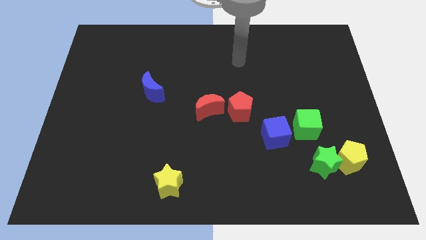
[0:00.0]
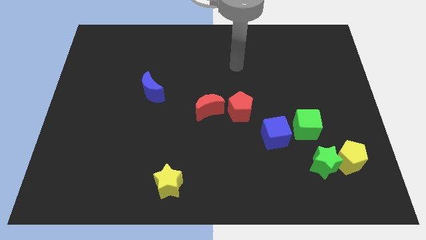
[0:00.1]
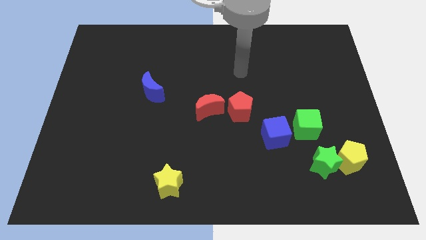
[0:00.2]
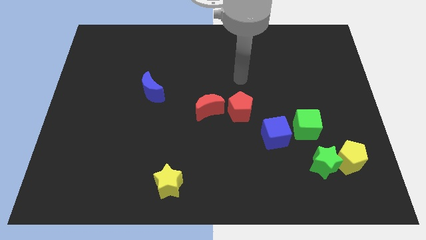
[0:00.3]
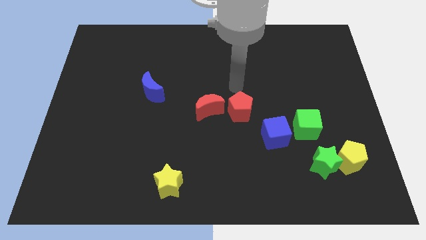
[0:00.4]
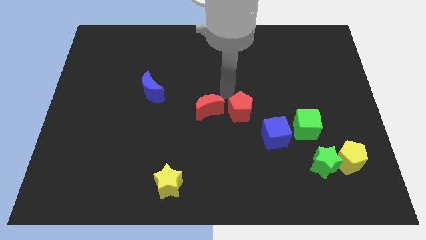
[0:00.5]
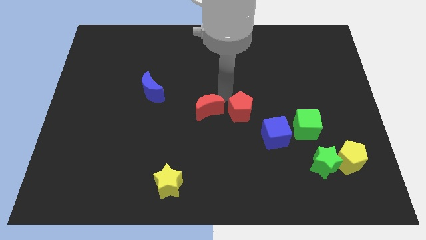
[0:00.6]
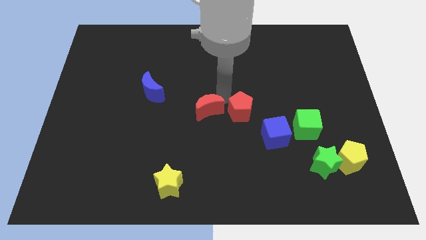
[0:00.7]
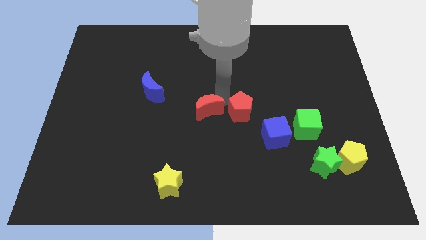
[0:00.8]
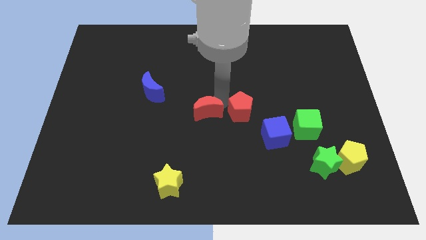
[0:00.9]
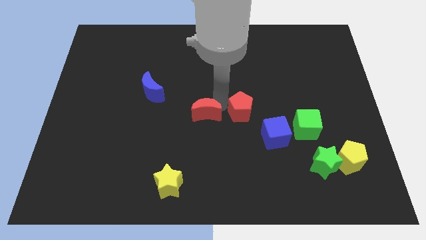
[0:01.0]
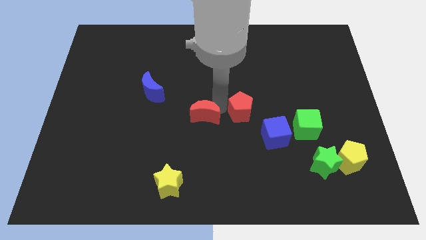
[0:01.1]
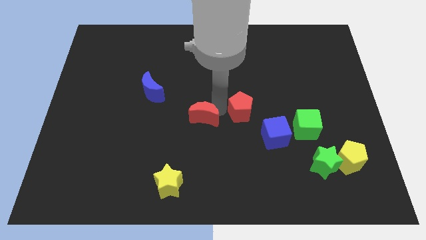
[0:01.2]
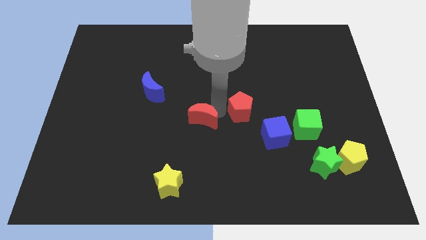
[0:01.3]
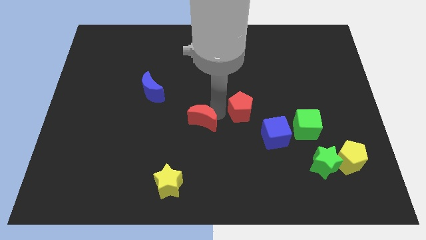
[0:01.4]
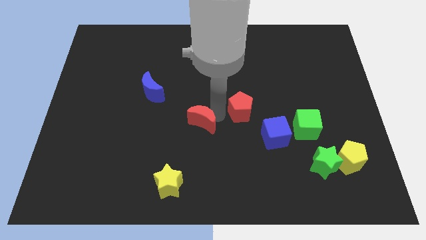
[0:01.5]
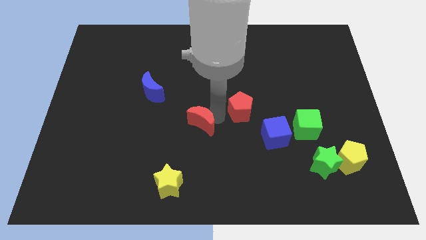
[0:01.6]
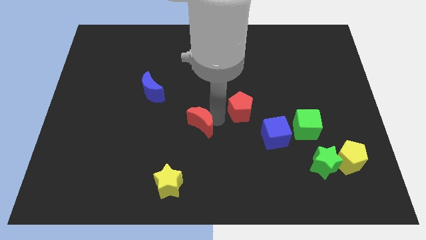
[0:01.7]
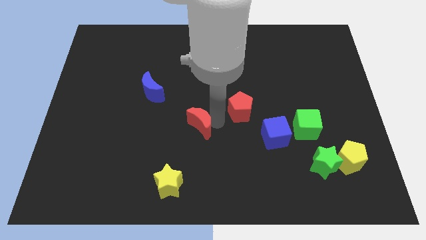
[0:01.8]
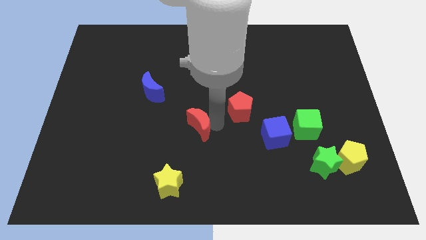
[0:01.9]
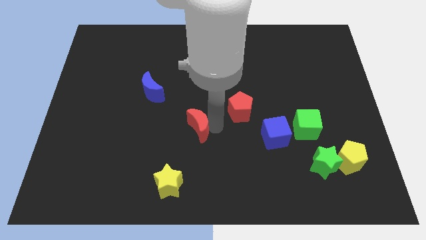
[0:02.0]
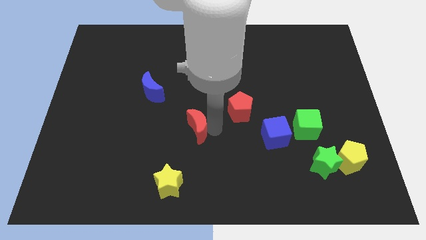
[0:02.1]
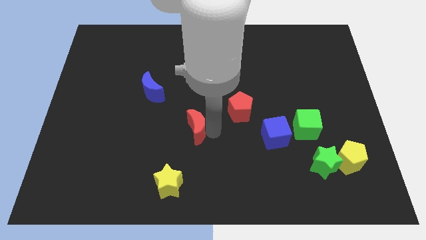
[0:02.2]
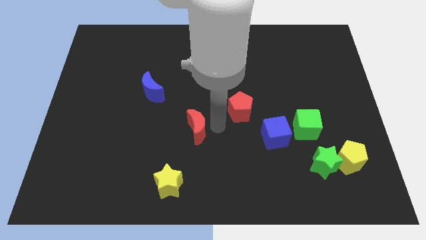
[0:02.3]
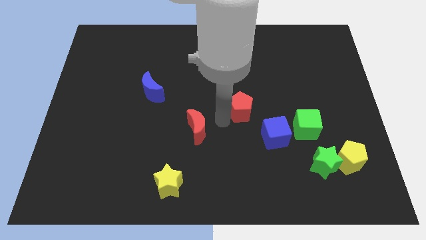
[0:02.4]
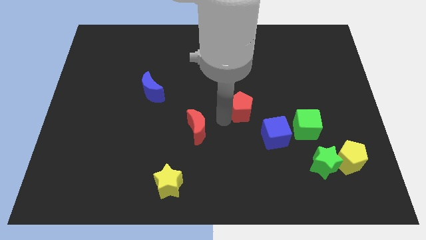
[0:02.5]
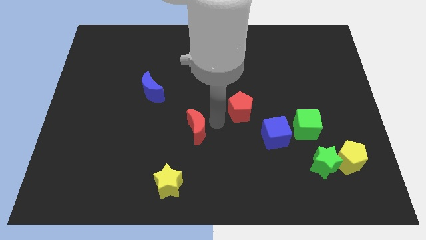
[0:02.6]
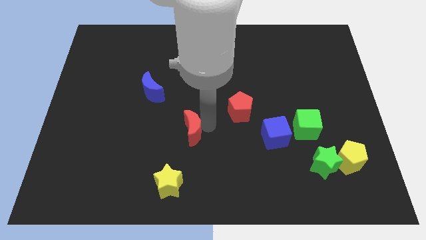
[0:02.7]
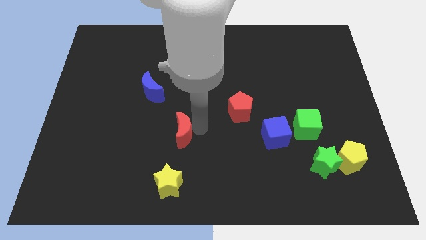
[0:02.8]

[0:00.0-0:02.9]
move the red moon downwards and to the left diagonally a bit

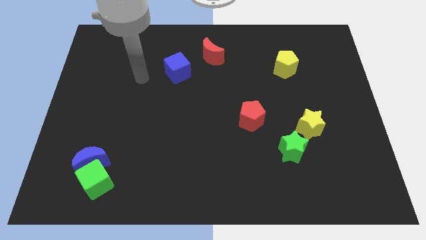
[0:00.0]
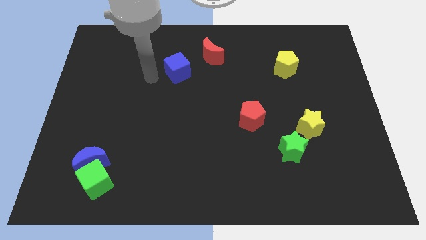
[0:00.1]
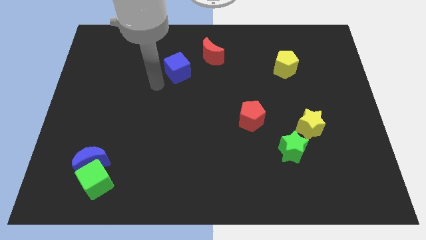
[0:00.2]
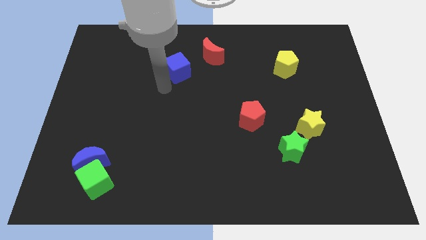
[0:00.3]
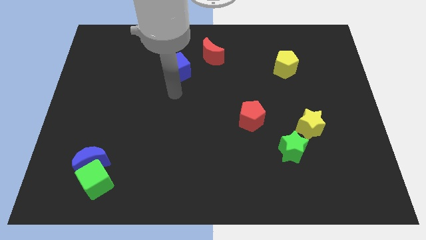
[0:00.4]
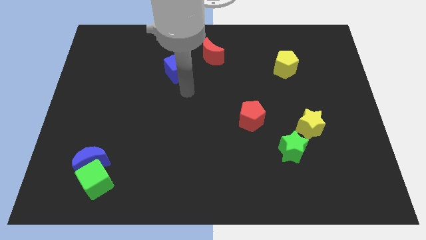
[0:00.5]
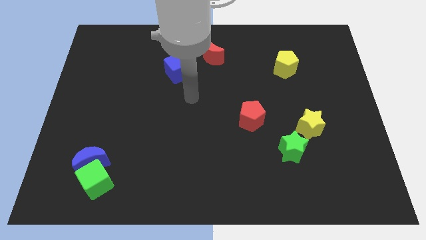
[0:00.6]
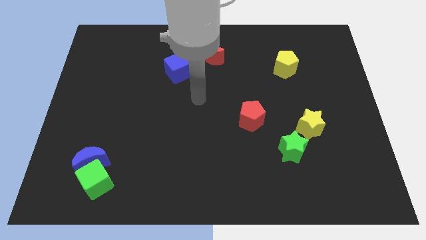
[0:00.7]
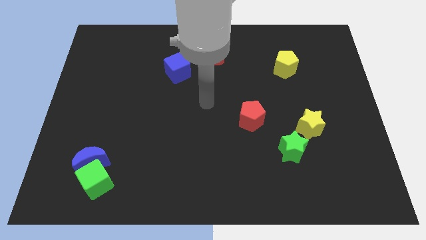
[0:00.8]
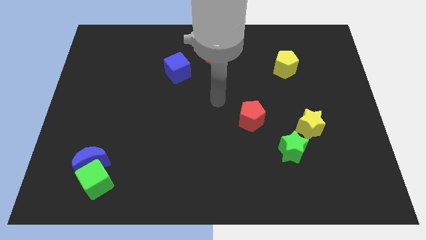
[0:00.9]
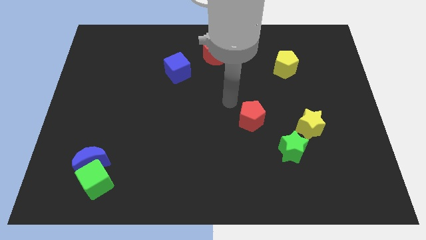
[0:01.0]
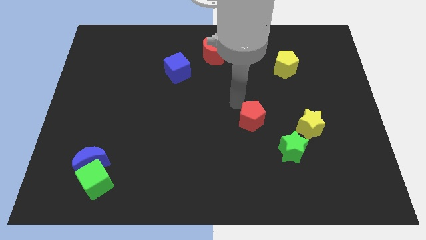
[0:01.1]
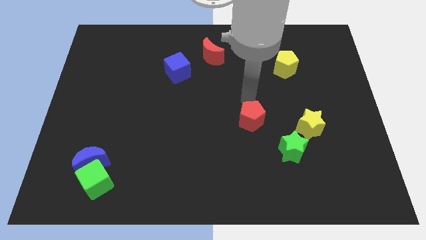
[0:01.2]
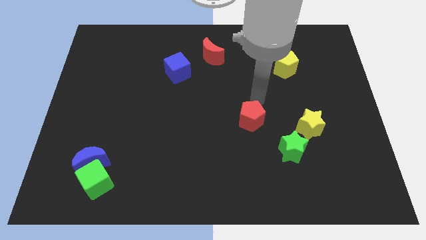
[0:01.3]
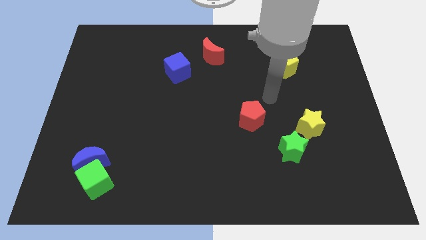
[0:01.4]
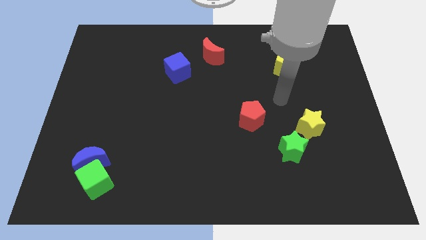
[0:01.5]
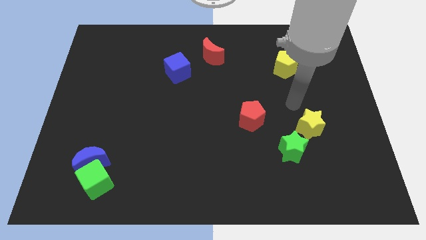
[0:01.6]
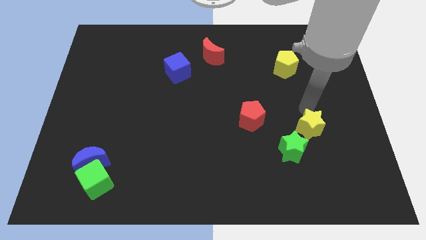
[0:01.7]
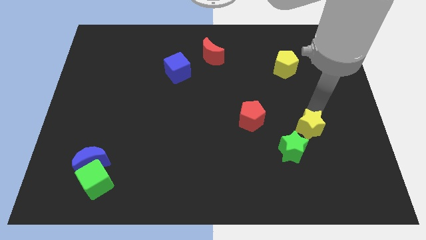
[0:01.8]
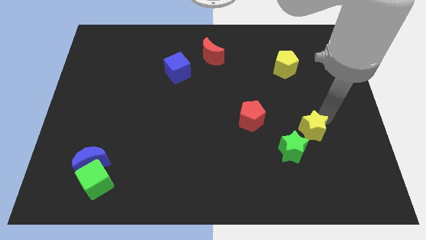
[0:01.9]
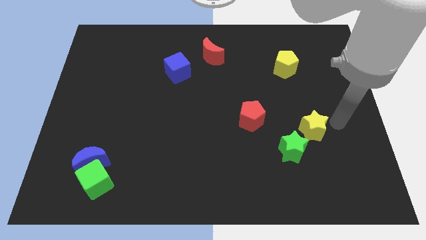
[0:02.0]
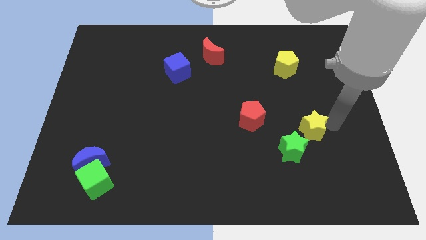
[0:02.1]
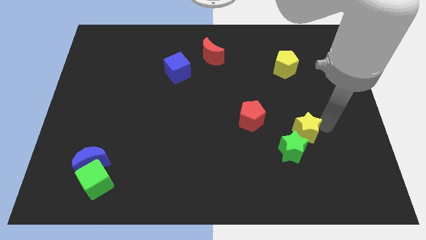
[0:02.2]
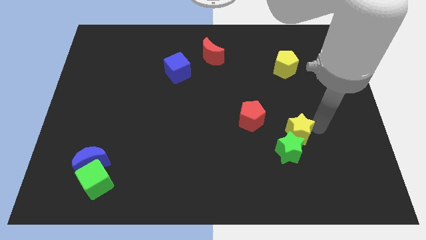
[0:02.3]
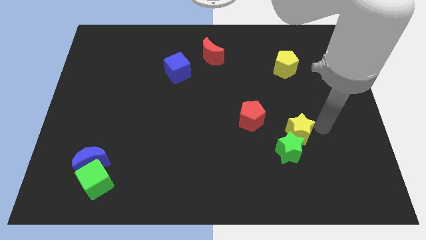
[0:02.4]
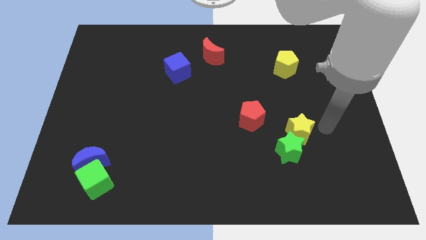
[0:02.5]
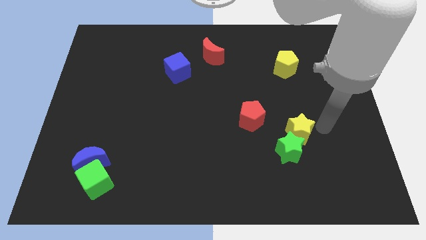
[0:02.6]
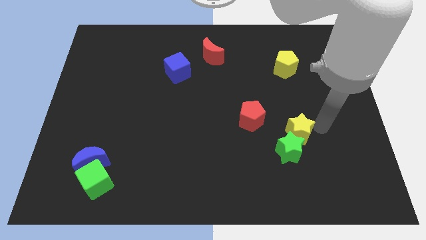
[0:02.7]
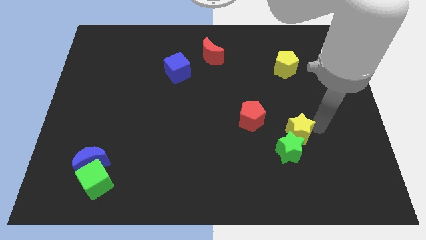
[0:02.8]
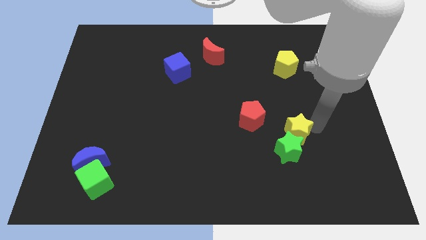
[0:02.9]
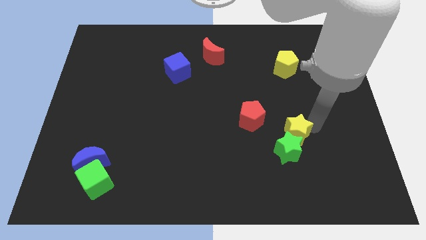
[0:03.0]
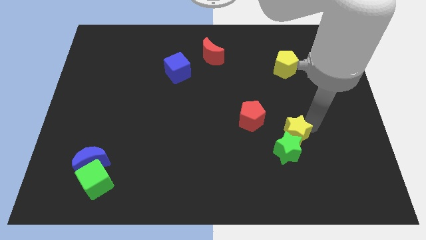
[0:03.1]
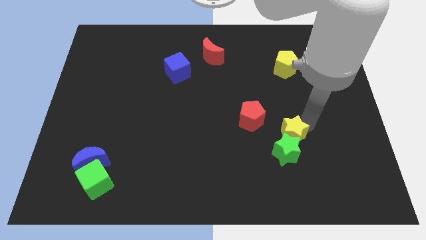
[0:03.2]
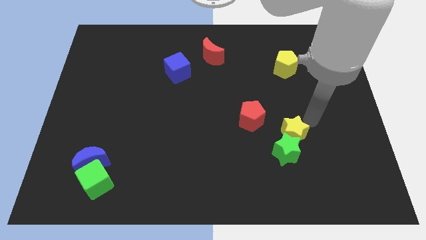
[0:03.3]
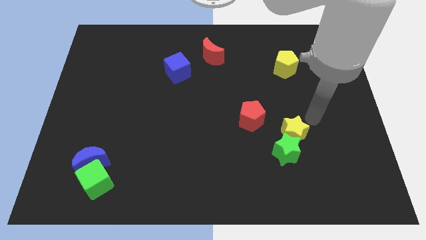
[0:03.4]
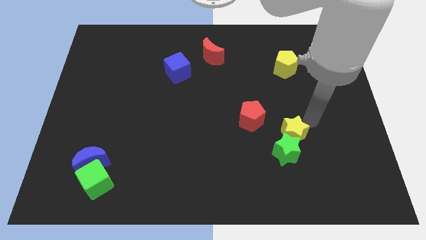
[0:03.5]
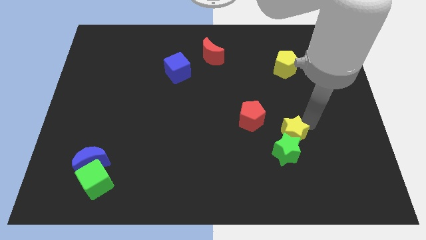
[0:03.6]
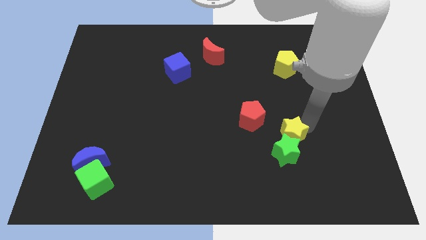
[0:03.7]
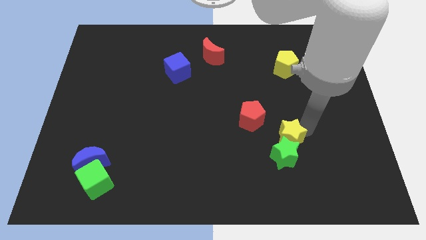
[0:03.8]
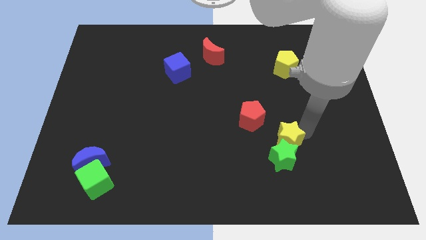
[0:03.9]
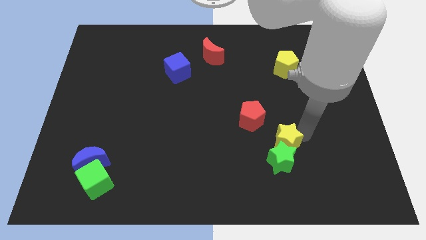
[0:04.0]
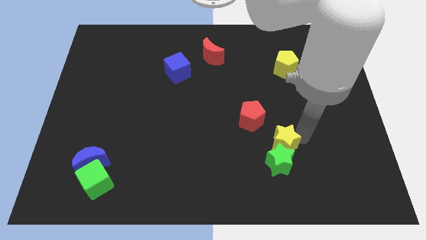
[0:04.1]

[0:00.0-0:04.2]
slide the yellow star downwards and left somewhat

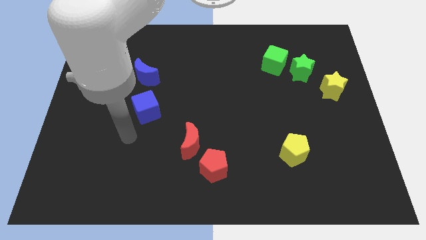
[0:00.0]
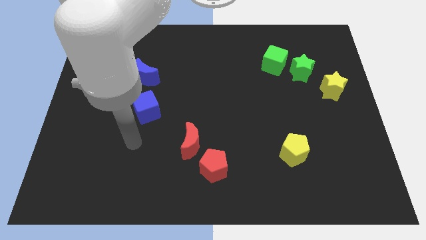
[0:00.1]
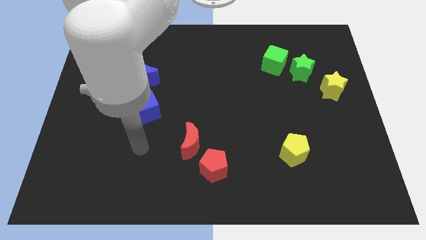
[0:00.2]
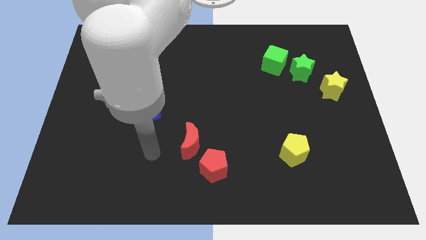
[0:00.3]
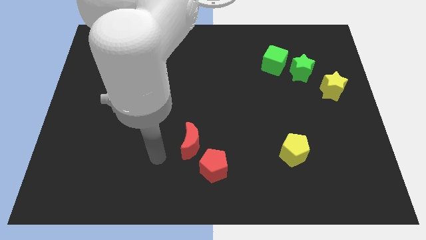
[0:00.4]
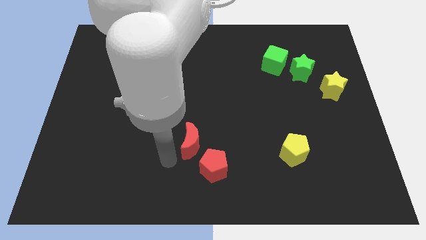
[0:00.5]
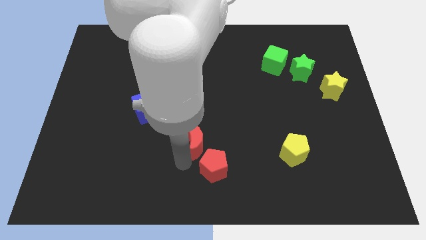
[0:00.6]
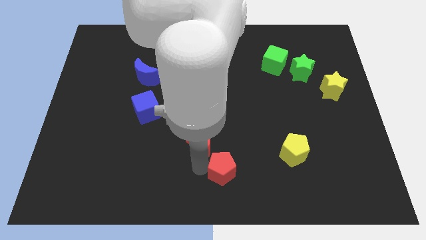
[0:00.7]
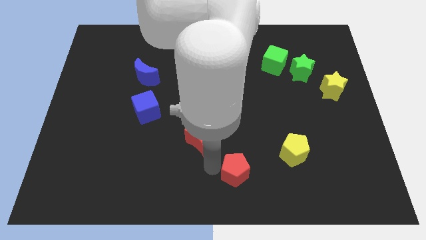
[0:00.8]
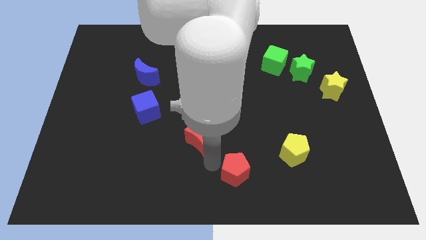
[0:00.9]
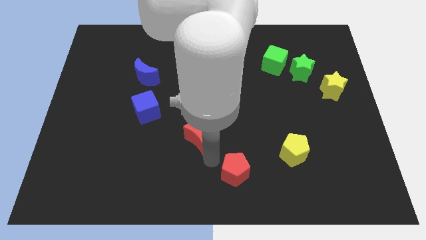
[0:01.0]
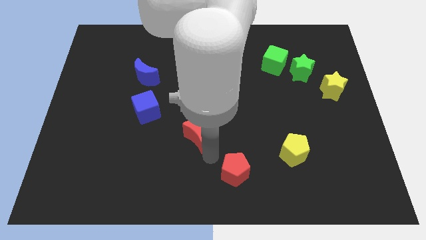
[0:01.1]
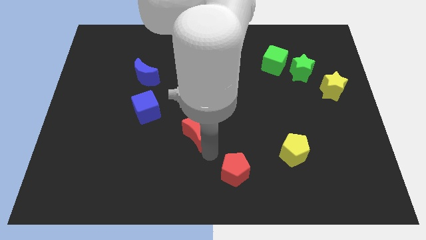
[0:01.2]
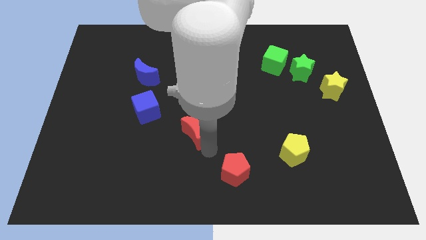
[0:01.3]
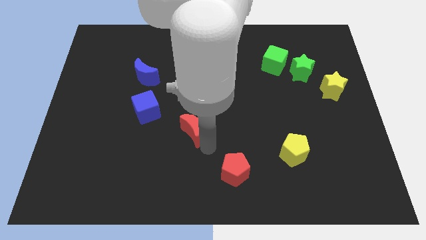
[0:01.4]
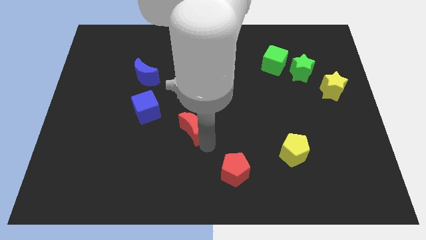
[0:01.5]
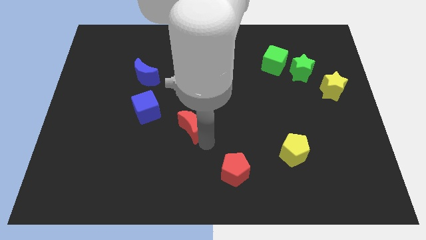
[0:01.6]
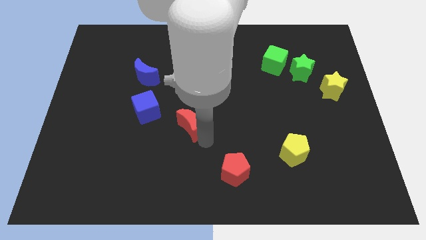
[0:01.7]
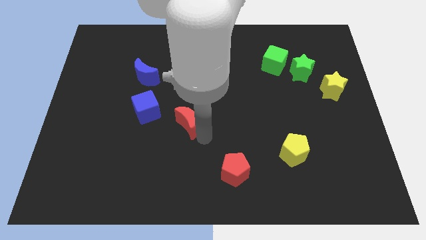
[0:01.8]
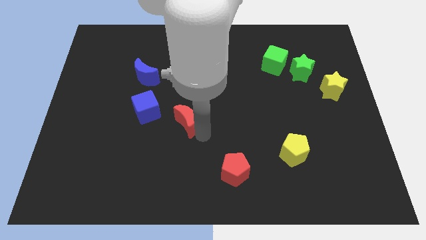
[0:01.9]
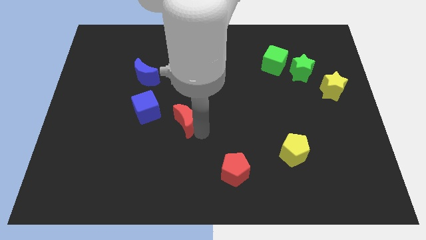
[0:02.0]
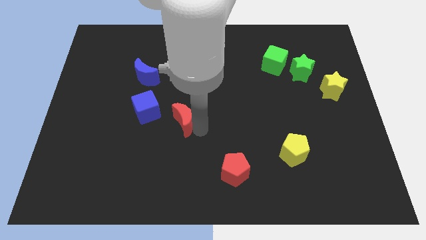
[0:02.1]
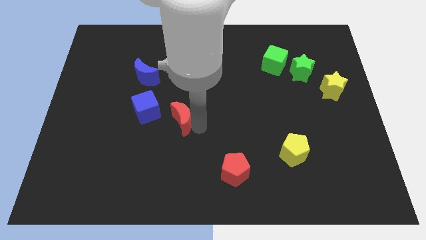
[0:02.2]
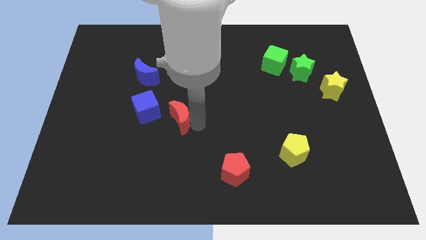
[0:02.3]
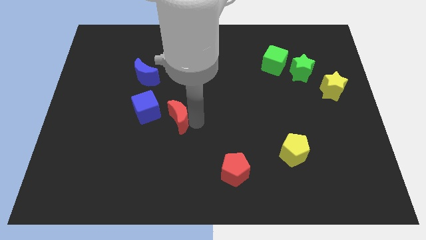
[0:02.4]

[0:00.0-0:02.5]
slide the red moon slightly upwards
